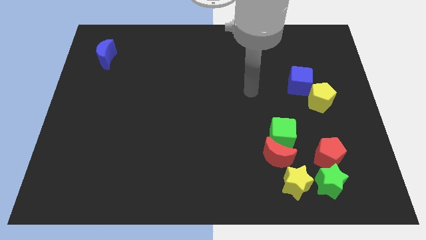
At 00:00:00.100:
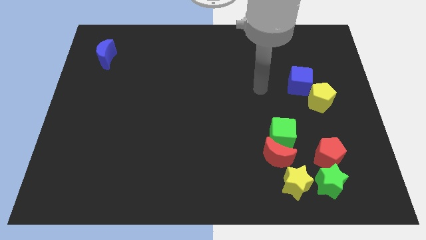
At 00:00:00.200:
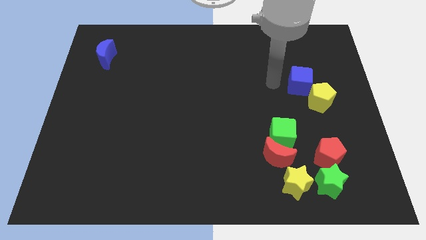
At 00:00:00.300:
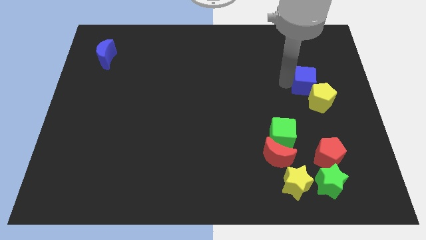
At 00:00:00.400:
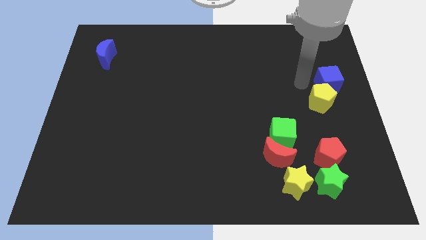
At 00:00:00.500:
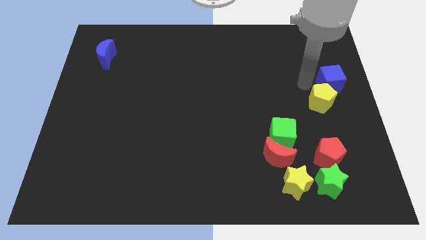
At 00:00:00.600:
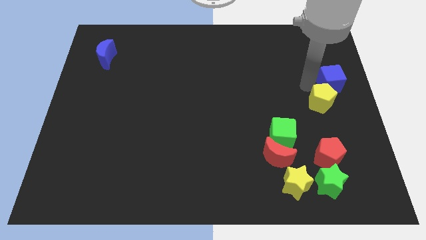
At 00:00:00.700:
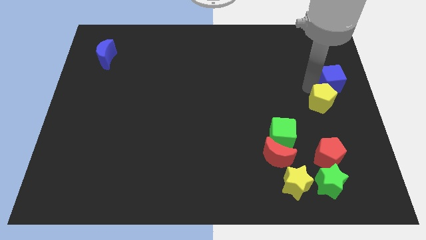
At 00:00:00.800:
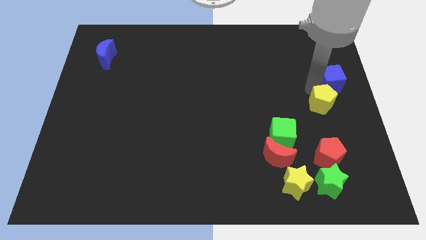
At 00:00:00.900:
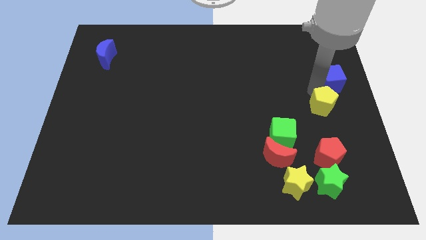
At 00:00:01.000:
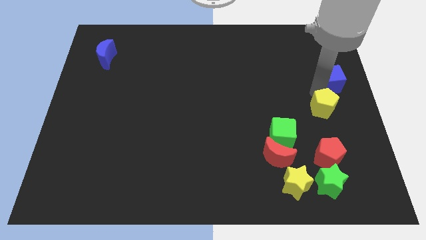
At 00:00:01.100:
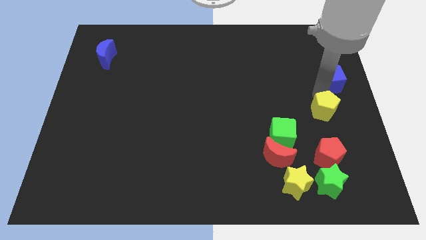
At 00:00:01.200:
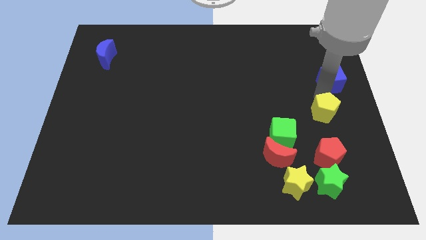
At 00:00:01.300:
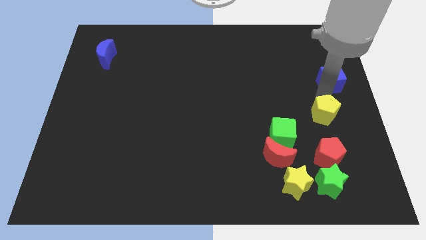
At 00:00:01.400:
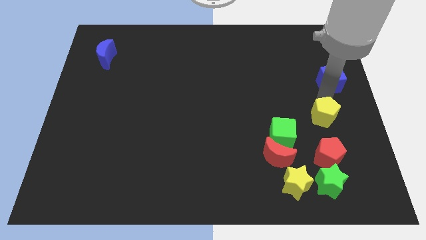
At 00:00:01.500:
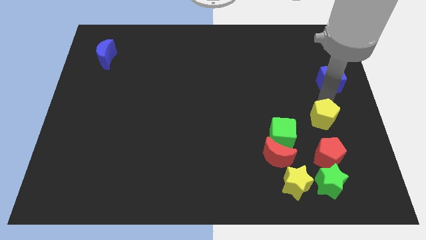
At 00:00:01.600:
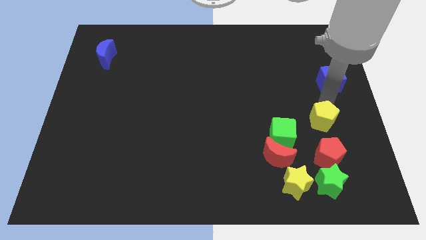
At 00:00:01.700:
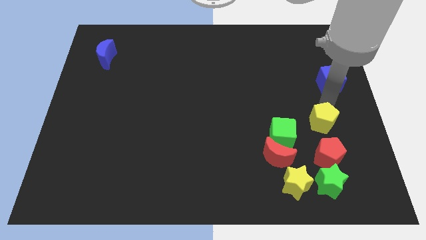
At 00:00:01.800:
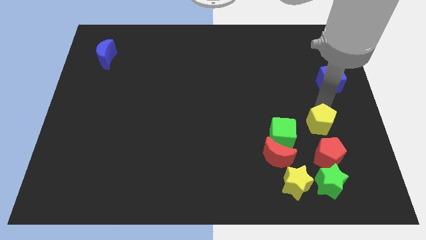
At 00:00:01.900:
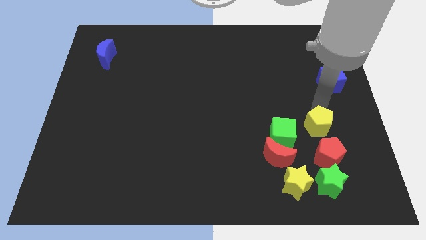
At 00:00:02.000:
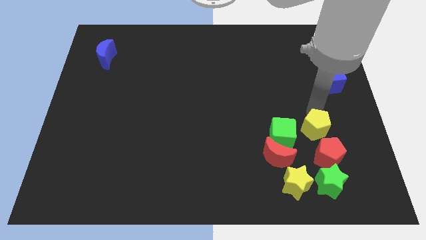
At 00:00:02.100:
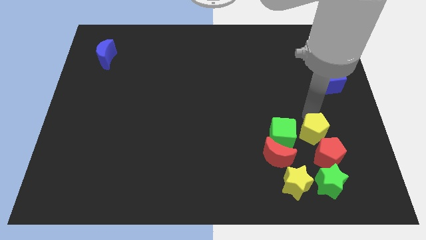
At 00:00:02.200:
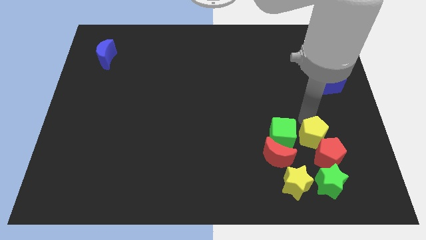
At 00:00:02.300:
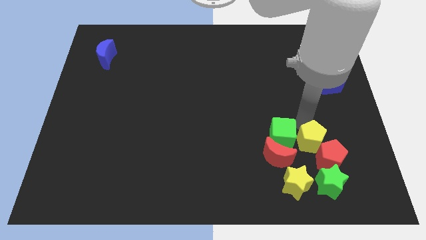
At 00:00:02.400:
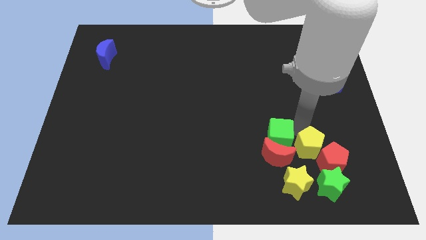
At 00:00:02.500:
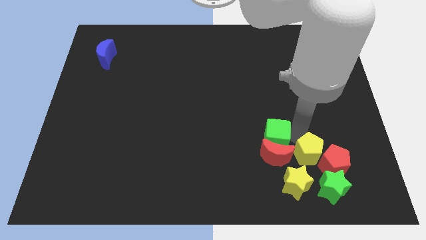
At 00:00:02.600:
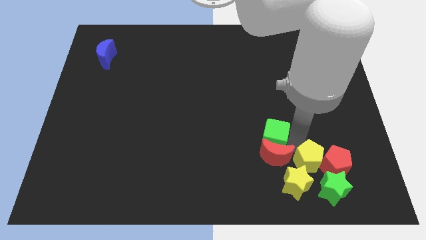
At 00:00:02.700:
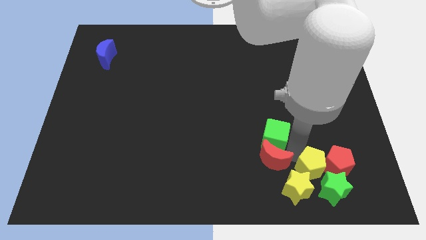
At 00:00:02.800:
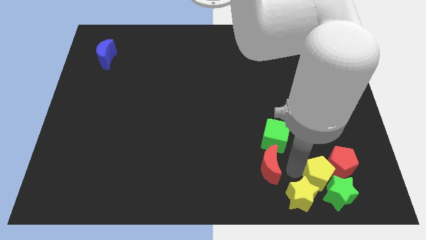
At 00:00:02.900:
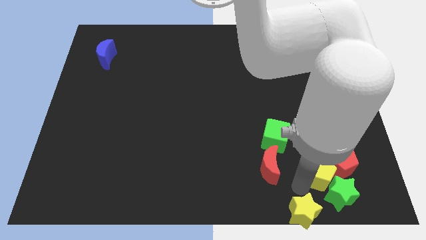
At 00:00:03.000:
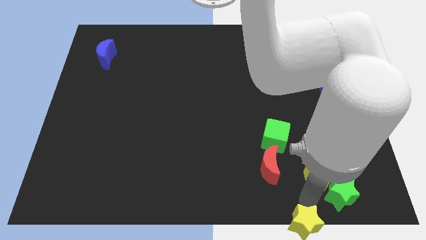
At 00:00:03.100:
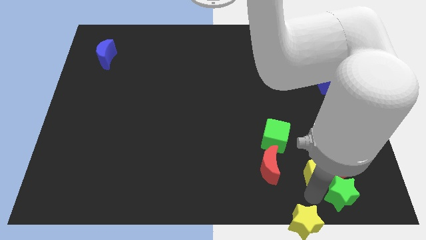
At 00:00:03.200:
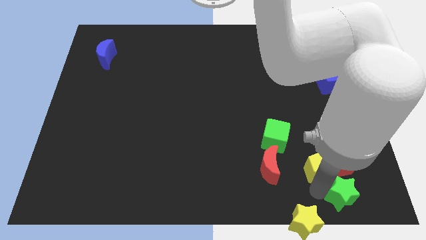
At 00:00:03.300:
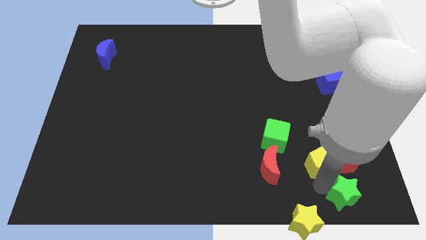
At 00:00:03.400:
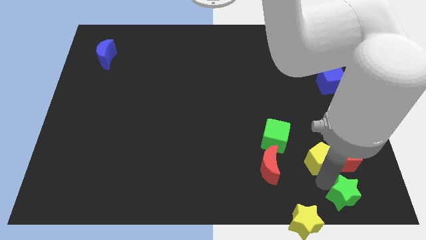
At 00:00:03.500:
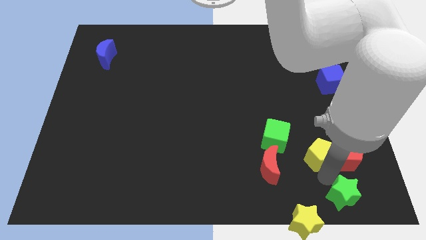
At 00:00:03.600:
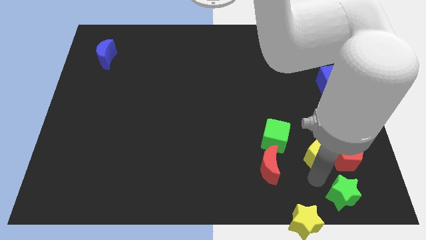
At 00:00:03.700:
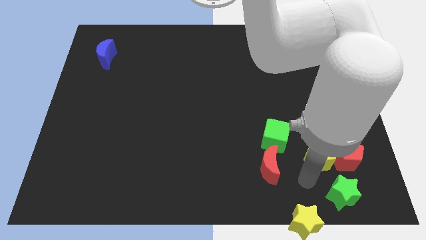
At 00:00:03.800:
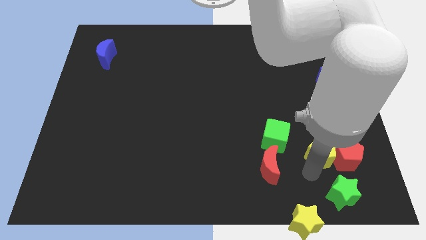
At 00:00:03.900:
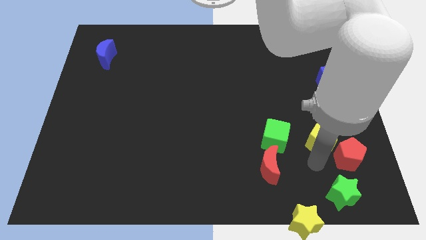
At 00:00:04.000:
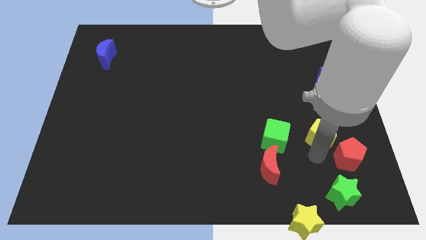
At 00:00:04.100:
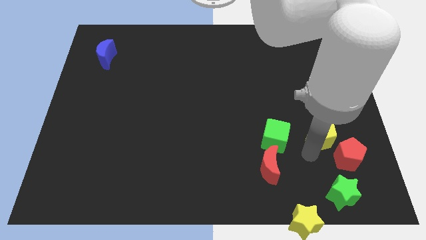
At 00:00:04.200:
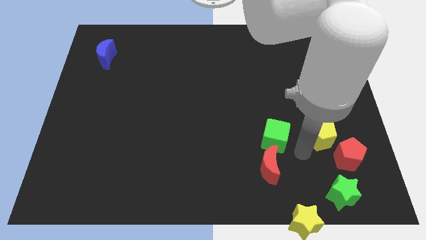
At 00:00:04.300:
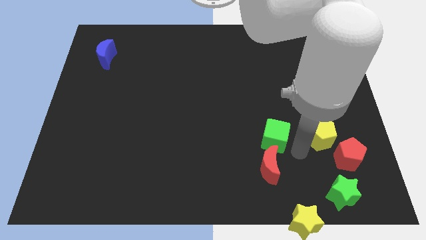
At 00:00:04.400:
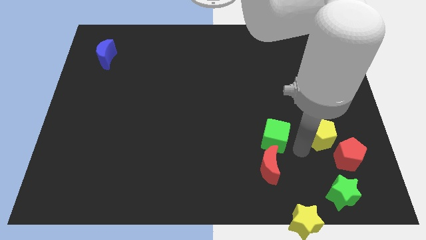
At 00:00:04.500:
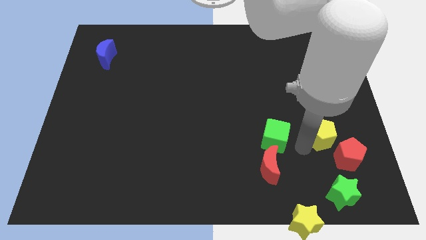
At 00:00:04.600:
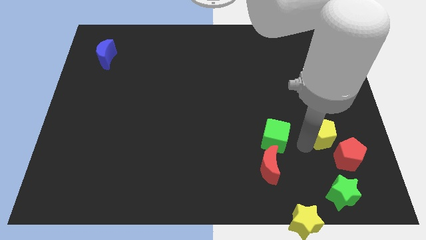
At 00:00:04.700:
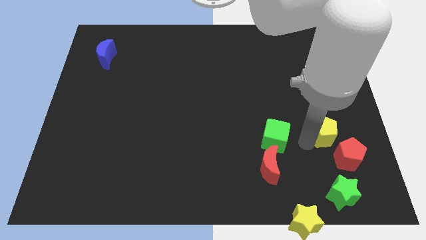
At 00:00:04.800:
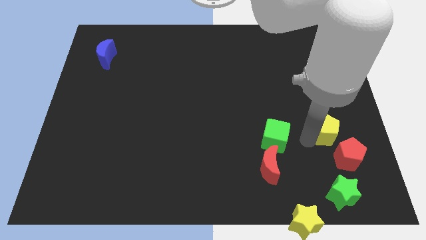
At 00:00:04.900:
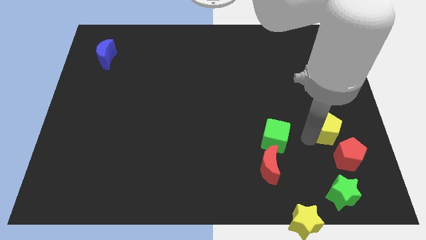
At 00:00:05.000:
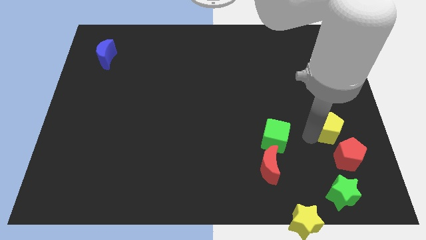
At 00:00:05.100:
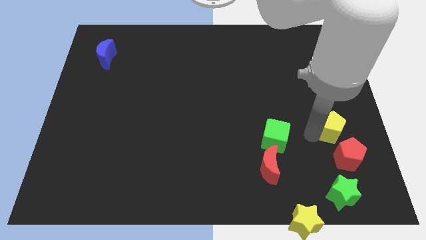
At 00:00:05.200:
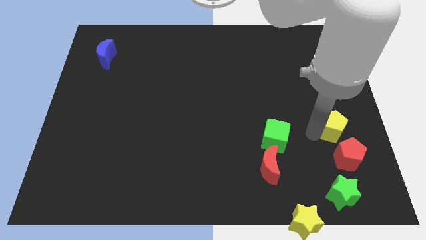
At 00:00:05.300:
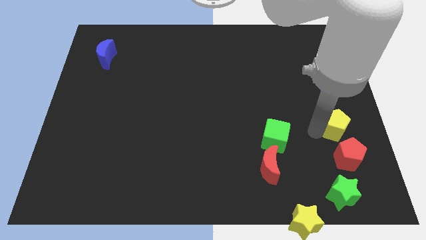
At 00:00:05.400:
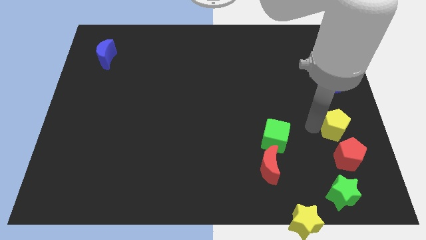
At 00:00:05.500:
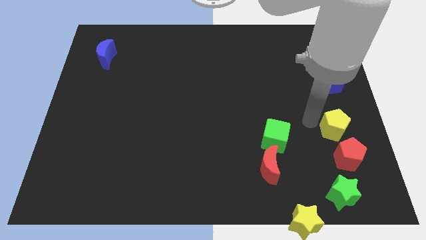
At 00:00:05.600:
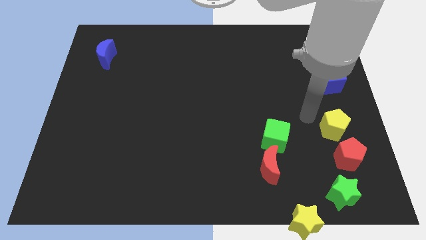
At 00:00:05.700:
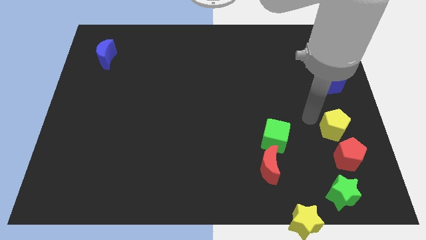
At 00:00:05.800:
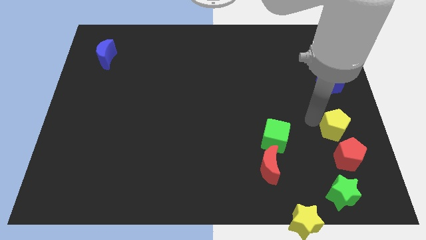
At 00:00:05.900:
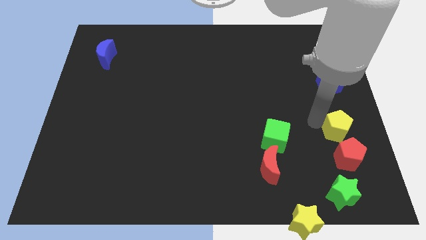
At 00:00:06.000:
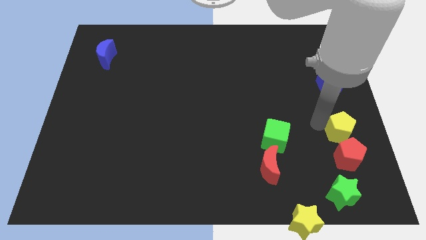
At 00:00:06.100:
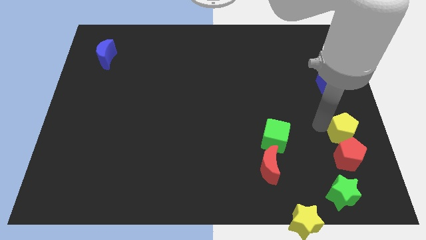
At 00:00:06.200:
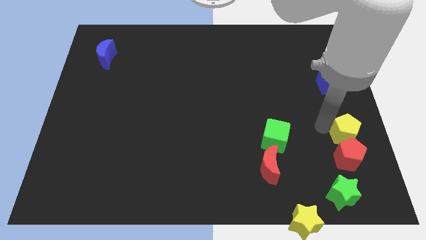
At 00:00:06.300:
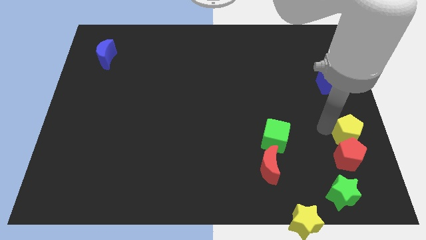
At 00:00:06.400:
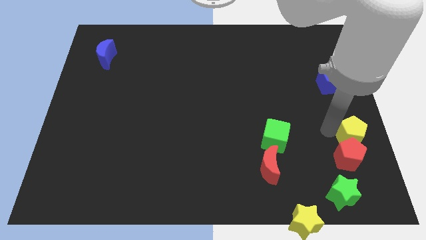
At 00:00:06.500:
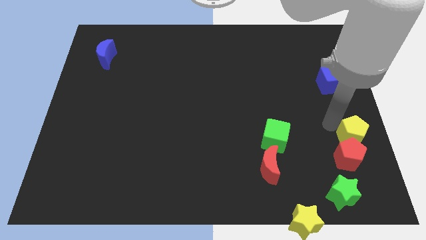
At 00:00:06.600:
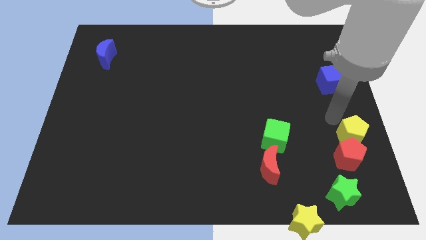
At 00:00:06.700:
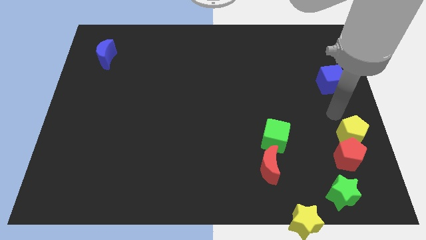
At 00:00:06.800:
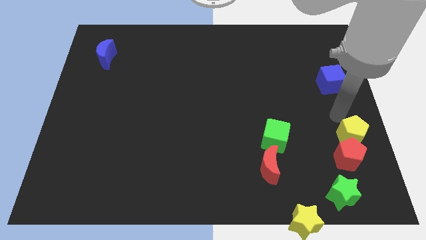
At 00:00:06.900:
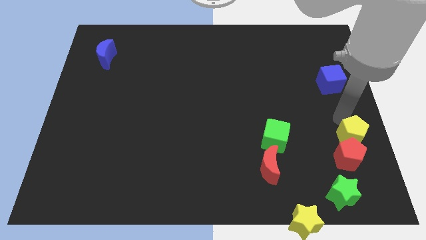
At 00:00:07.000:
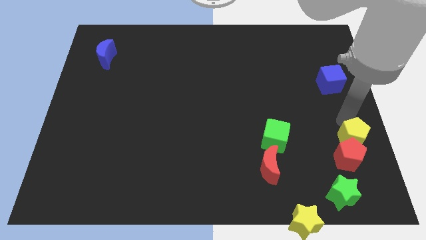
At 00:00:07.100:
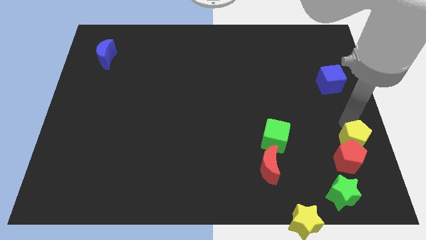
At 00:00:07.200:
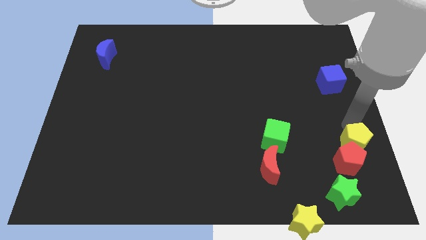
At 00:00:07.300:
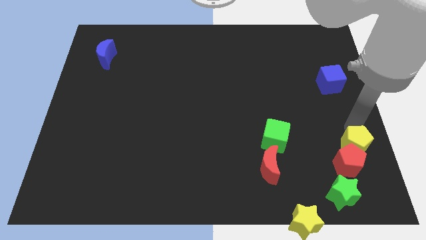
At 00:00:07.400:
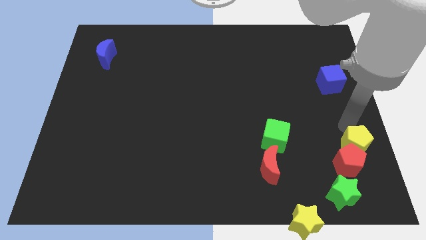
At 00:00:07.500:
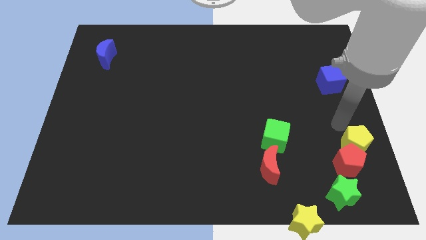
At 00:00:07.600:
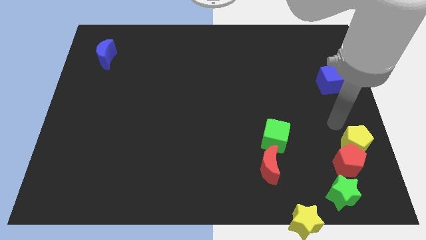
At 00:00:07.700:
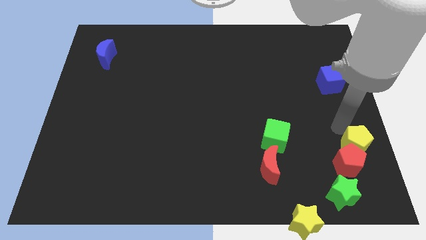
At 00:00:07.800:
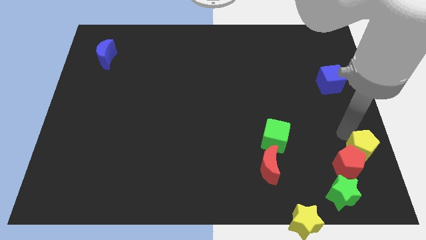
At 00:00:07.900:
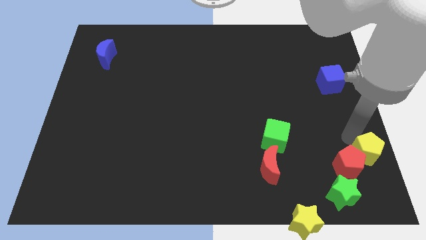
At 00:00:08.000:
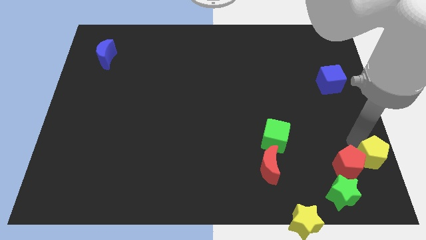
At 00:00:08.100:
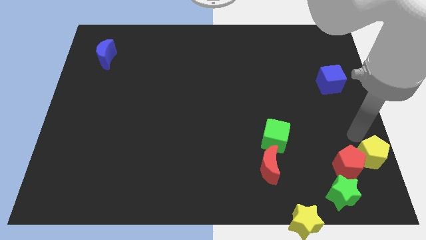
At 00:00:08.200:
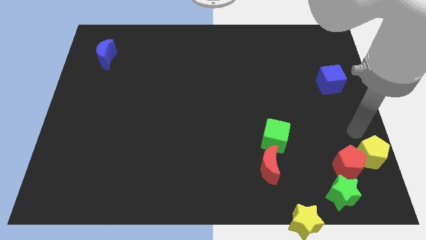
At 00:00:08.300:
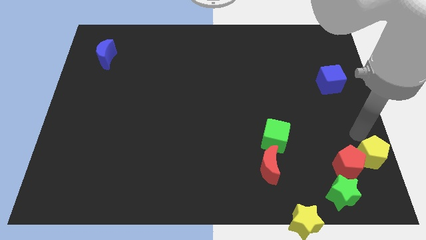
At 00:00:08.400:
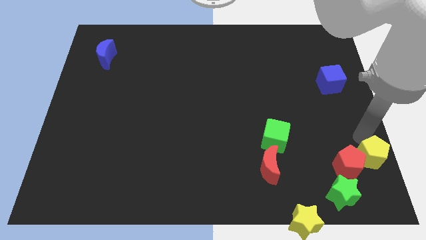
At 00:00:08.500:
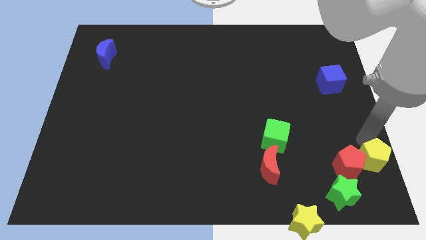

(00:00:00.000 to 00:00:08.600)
move the yellow pentagon to the bottom right of the board
